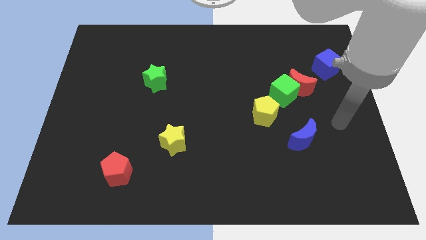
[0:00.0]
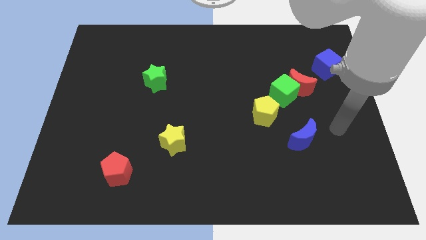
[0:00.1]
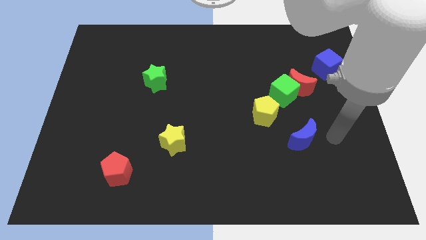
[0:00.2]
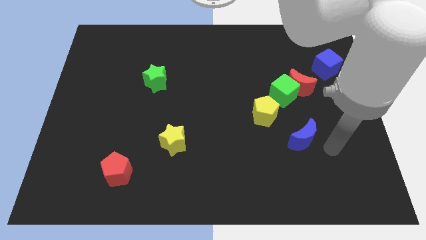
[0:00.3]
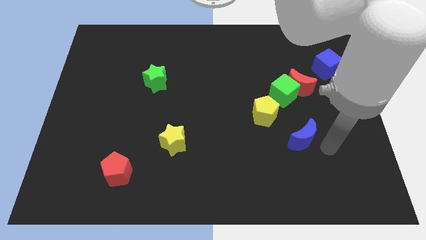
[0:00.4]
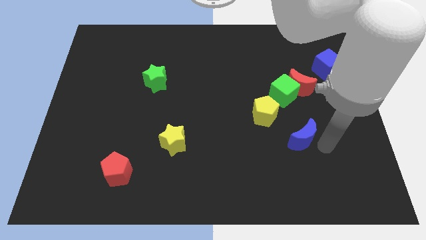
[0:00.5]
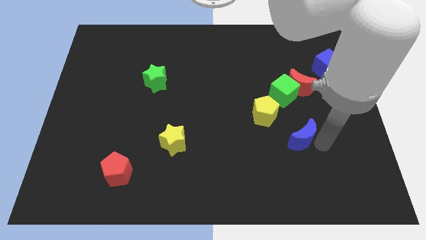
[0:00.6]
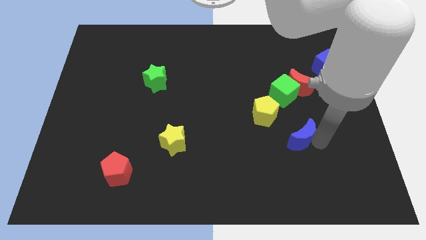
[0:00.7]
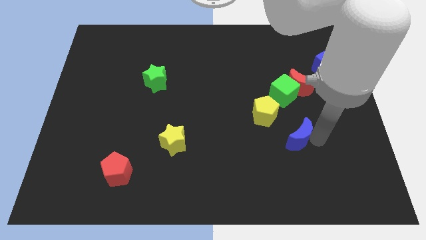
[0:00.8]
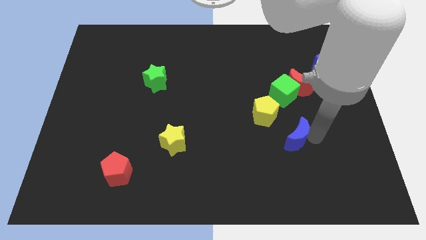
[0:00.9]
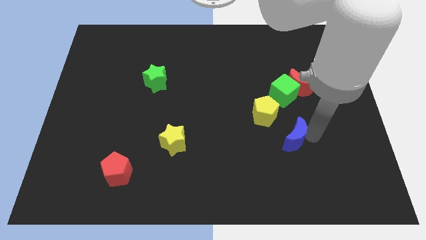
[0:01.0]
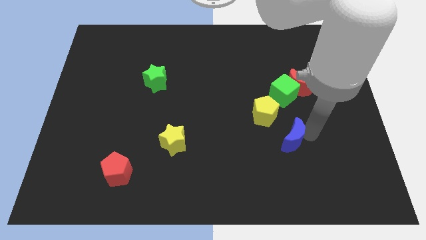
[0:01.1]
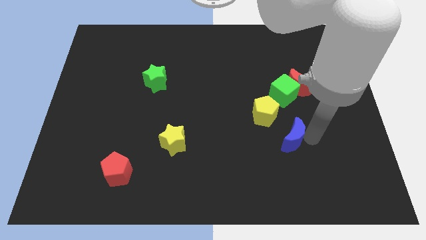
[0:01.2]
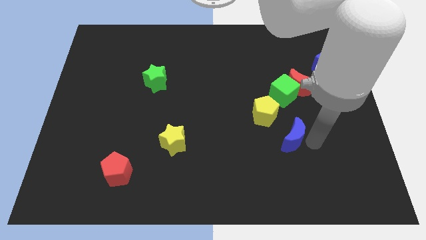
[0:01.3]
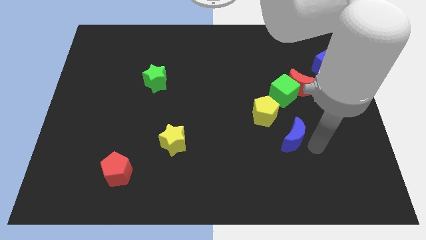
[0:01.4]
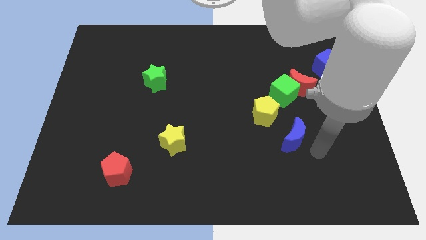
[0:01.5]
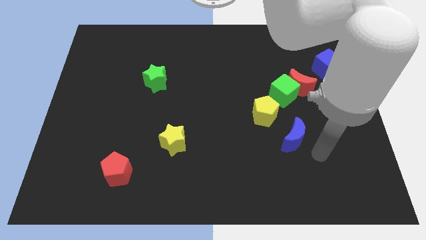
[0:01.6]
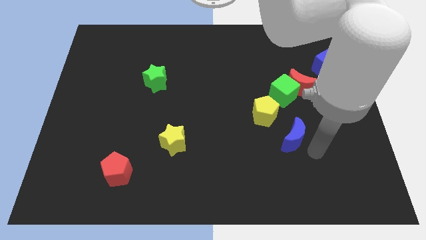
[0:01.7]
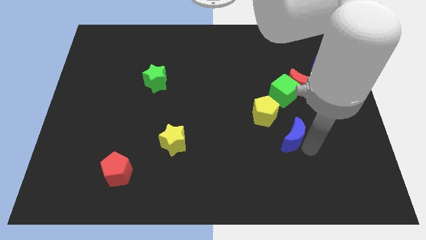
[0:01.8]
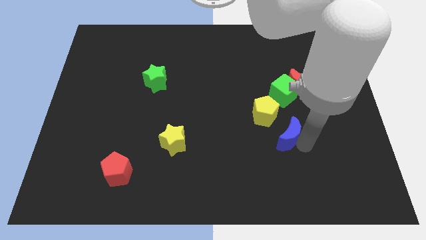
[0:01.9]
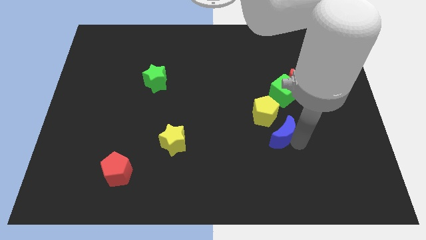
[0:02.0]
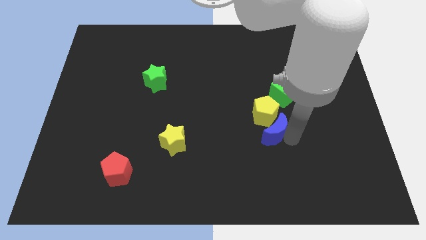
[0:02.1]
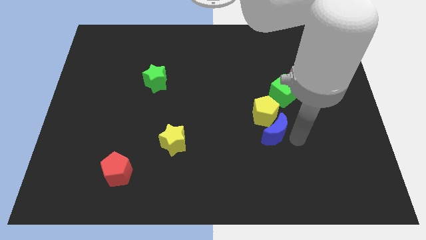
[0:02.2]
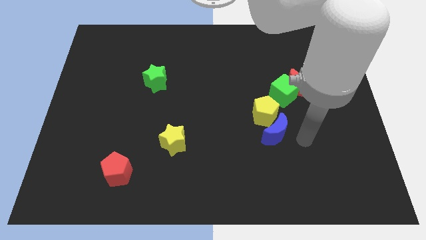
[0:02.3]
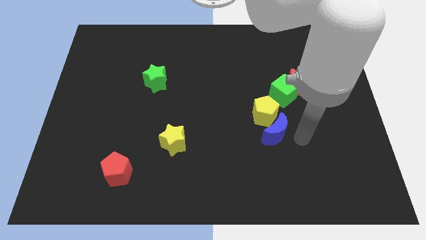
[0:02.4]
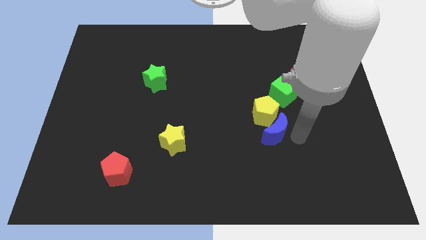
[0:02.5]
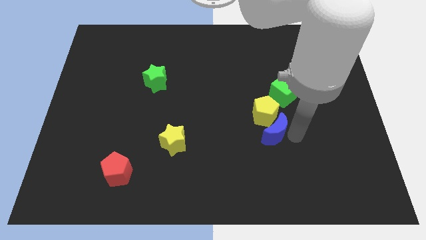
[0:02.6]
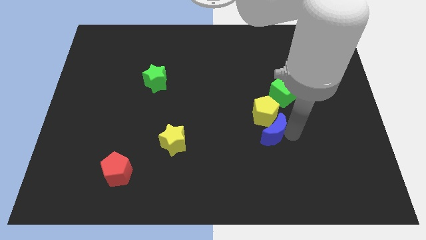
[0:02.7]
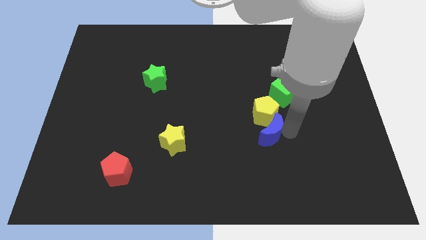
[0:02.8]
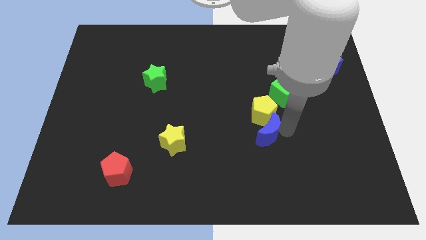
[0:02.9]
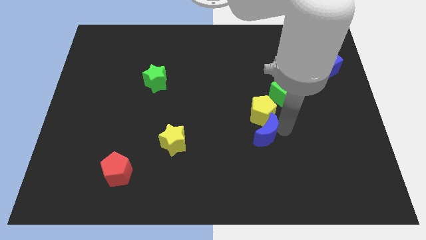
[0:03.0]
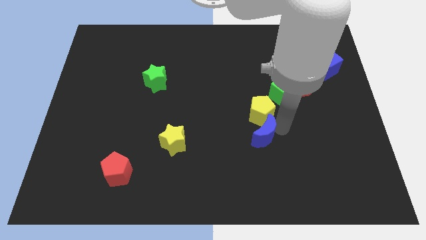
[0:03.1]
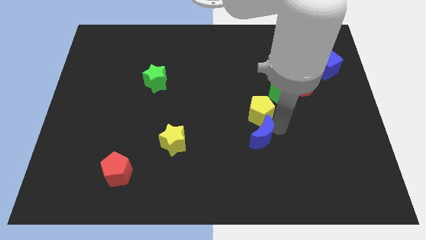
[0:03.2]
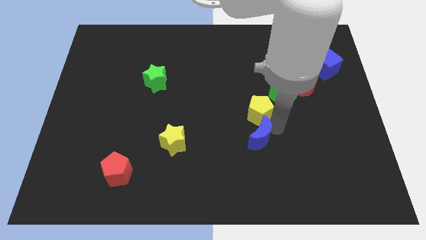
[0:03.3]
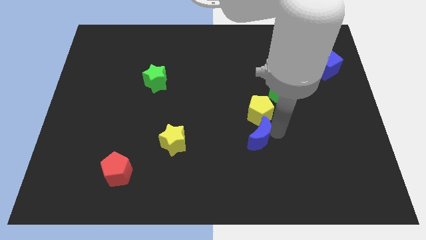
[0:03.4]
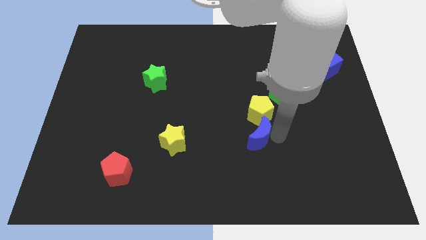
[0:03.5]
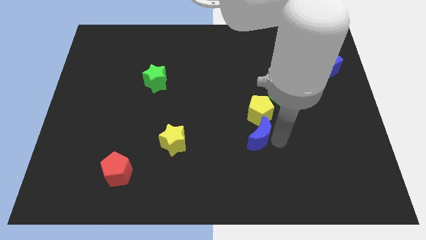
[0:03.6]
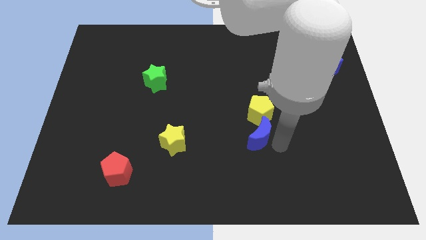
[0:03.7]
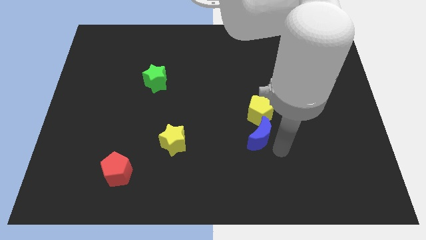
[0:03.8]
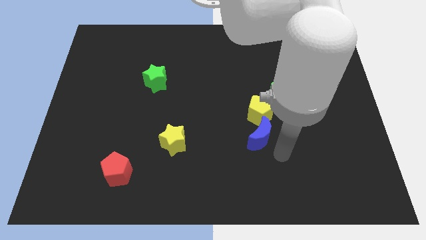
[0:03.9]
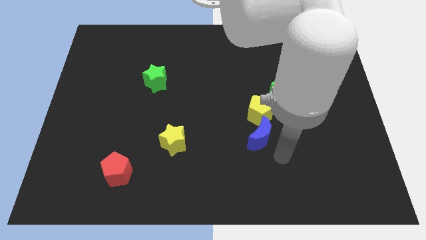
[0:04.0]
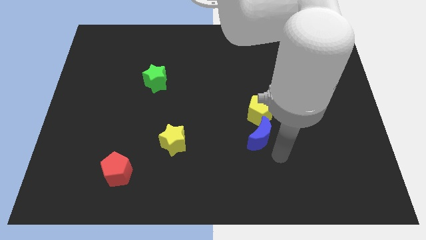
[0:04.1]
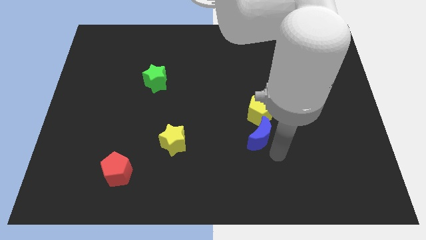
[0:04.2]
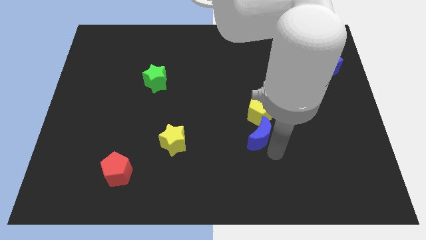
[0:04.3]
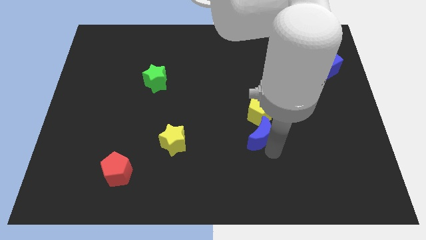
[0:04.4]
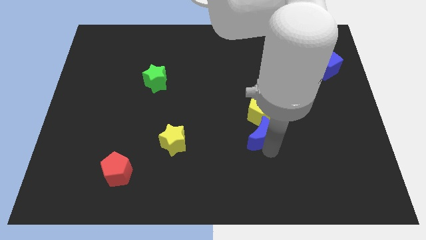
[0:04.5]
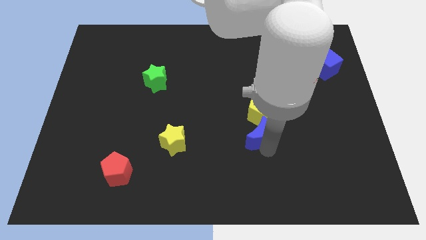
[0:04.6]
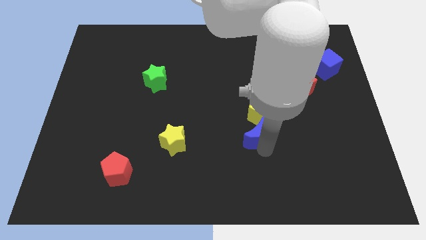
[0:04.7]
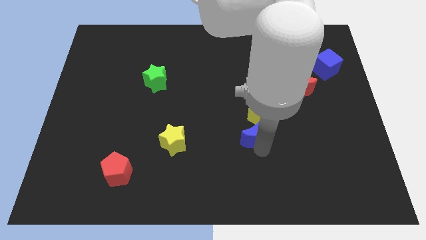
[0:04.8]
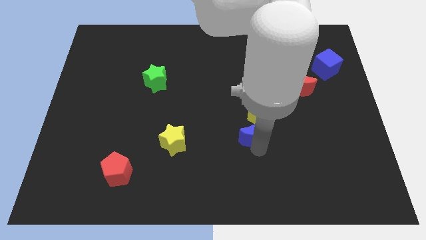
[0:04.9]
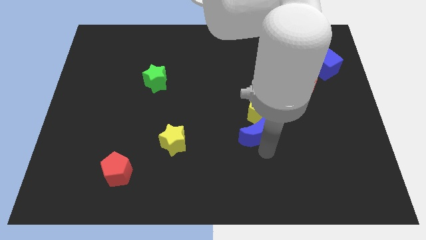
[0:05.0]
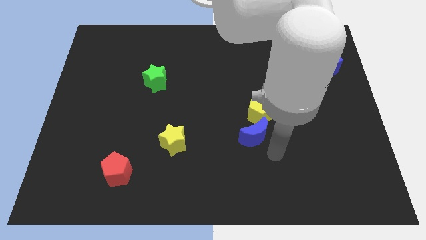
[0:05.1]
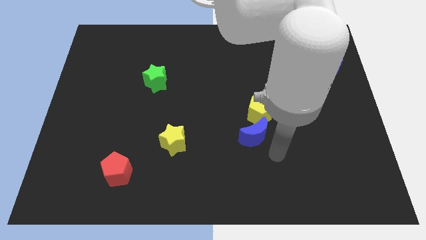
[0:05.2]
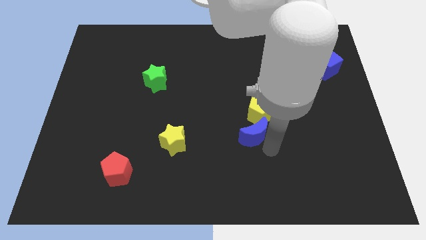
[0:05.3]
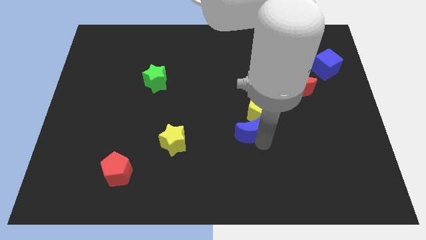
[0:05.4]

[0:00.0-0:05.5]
slide the blue moon to the center

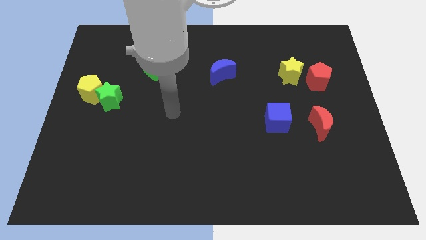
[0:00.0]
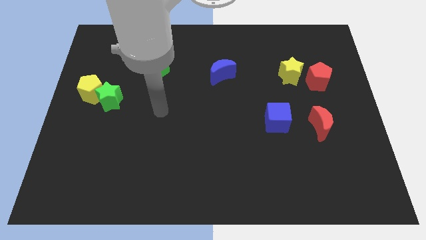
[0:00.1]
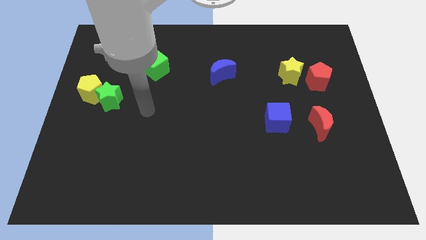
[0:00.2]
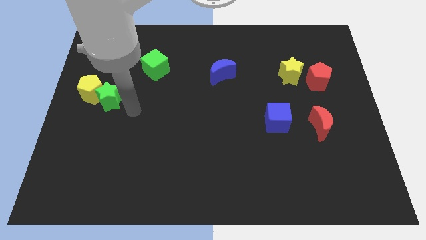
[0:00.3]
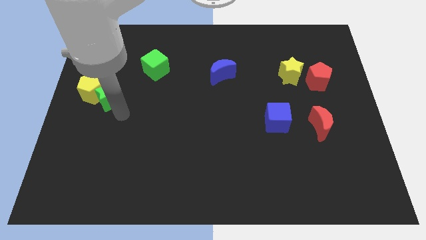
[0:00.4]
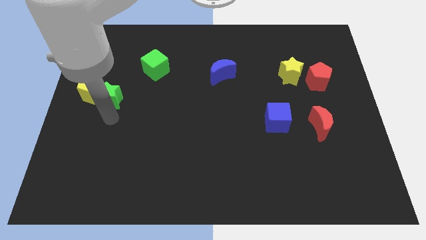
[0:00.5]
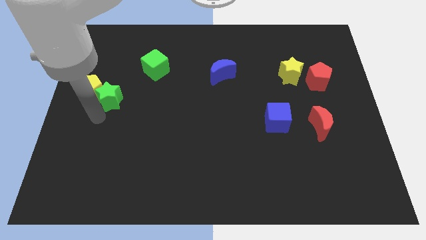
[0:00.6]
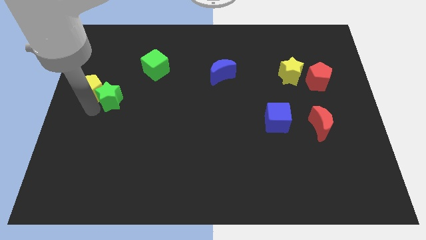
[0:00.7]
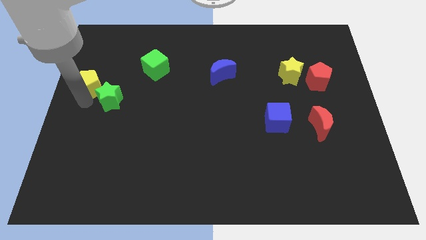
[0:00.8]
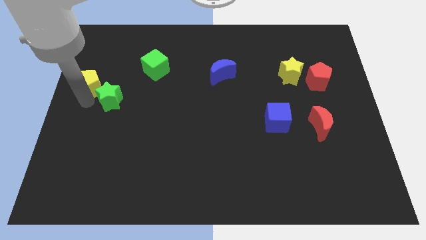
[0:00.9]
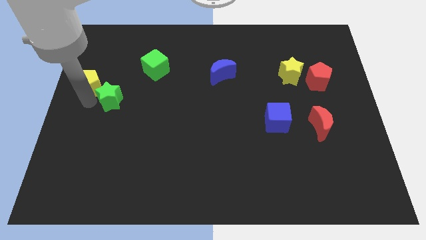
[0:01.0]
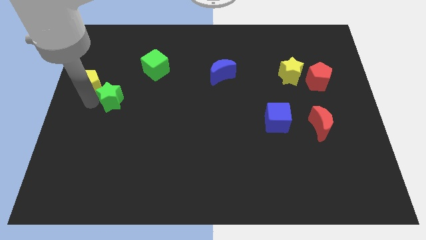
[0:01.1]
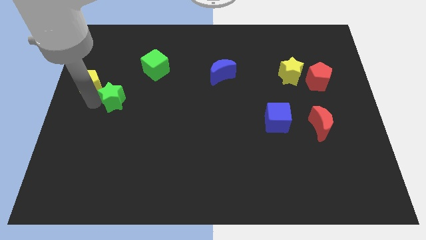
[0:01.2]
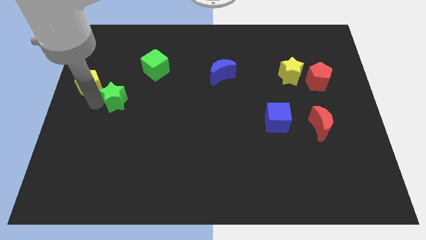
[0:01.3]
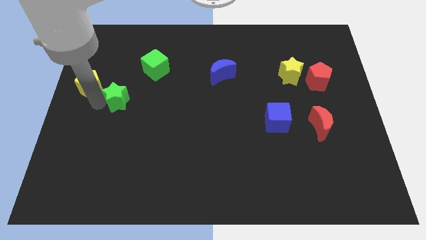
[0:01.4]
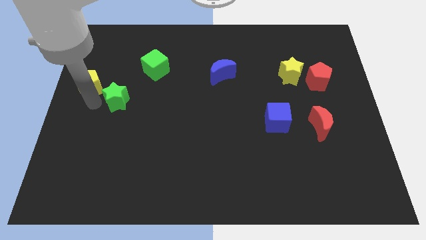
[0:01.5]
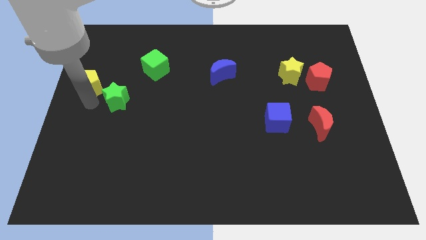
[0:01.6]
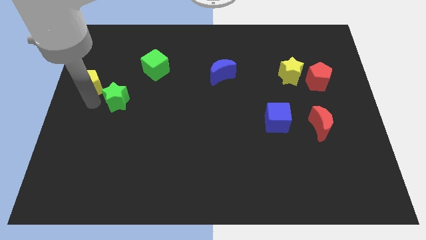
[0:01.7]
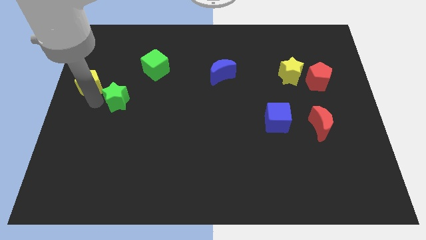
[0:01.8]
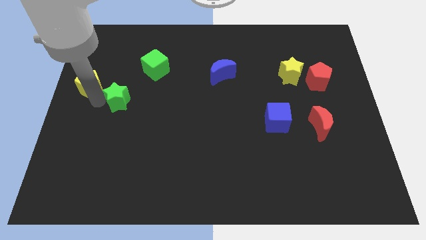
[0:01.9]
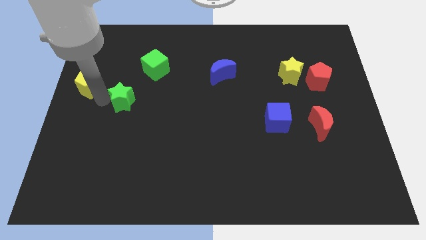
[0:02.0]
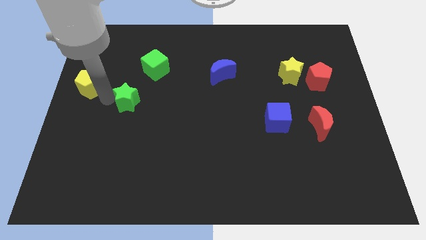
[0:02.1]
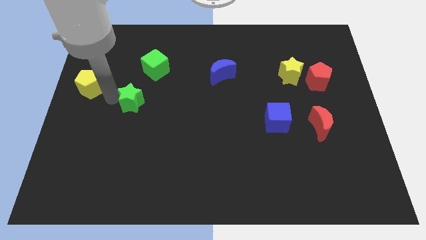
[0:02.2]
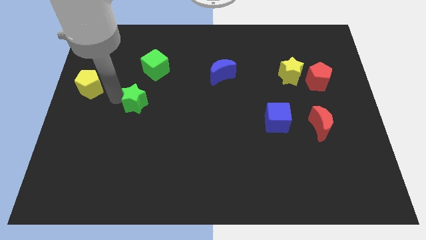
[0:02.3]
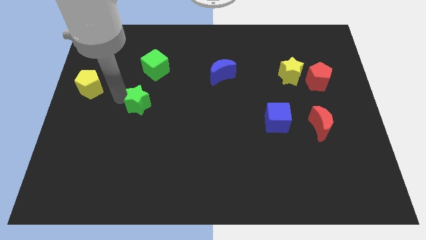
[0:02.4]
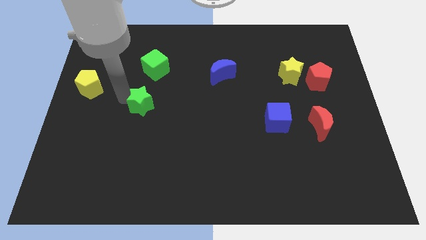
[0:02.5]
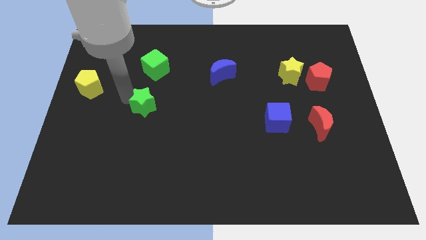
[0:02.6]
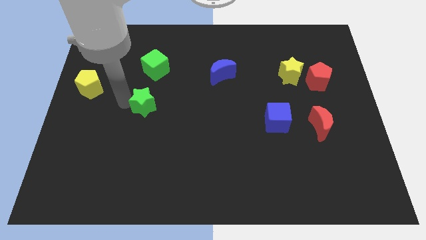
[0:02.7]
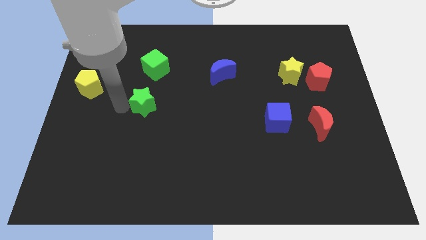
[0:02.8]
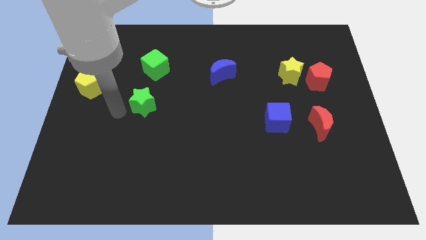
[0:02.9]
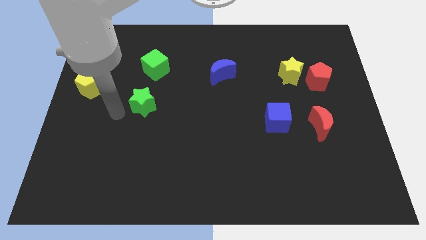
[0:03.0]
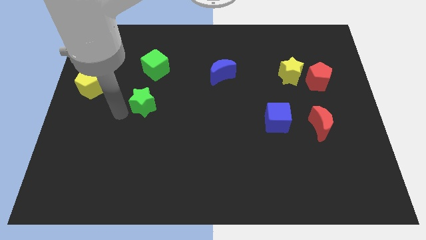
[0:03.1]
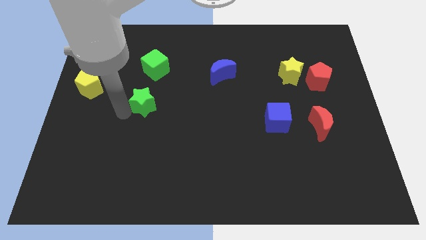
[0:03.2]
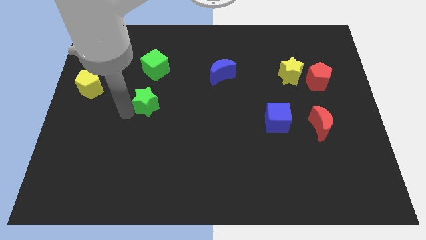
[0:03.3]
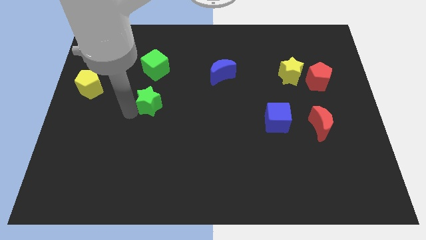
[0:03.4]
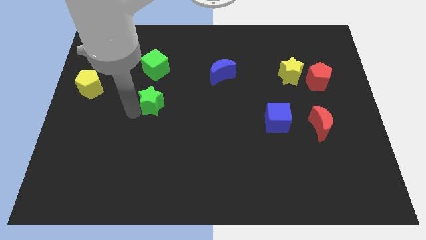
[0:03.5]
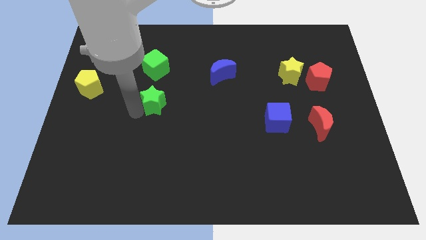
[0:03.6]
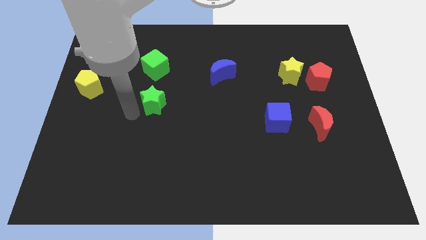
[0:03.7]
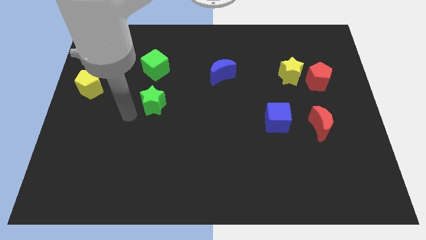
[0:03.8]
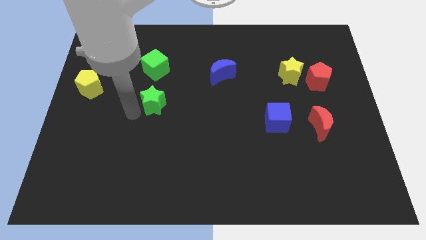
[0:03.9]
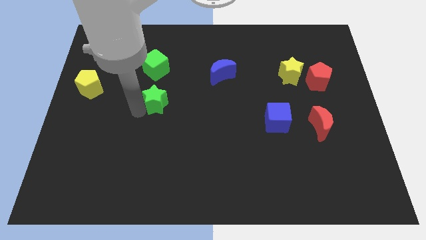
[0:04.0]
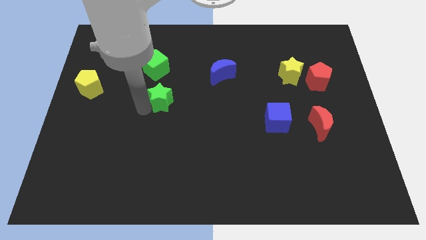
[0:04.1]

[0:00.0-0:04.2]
put the green star to the center of the board
